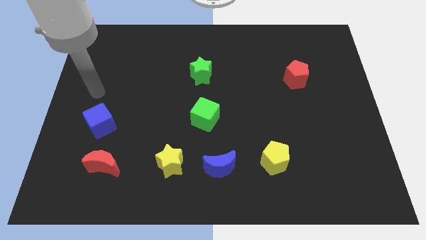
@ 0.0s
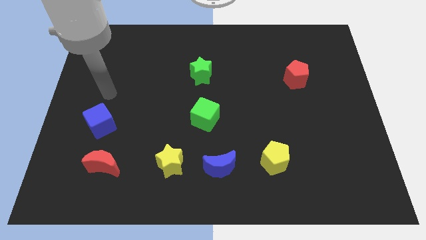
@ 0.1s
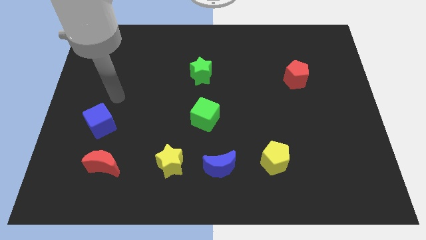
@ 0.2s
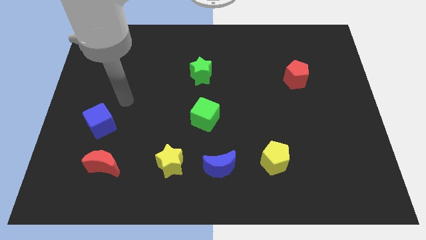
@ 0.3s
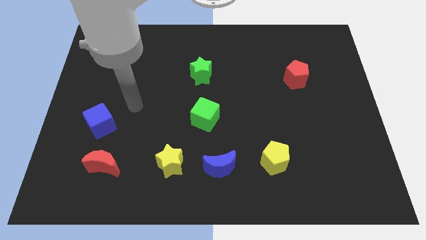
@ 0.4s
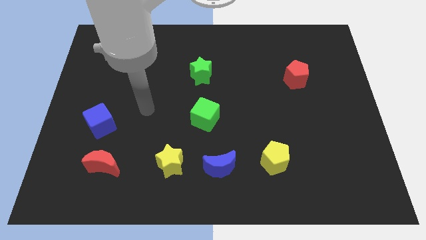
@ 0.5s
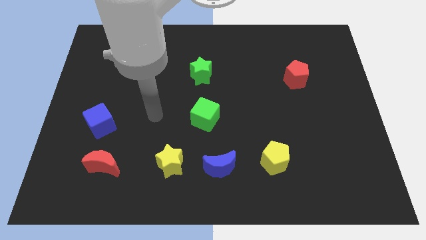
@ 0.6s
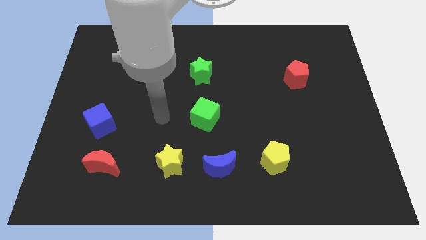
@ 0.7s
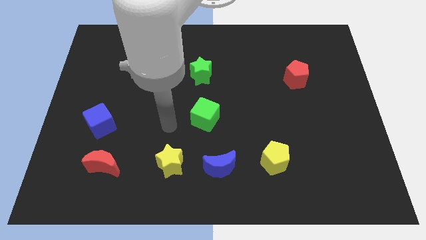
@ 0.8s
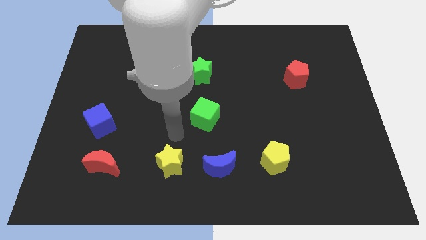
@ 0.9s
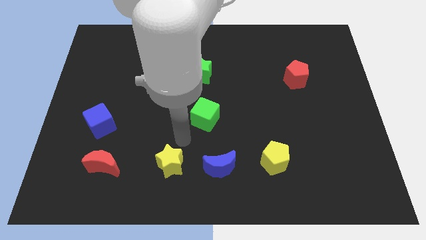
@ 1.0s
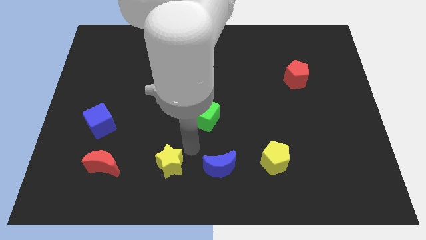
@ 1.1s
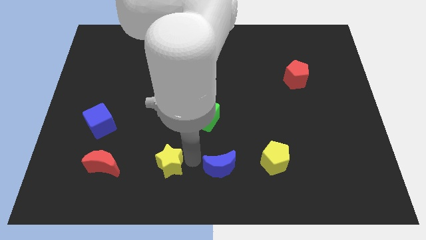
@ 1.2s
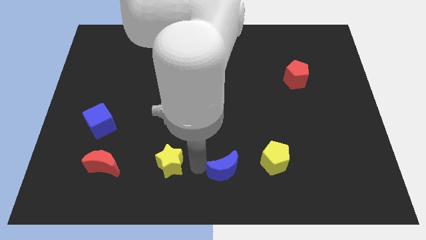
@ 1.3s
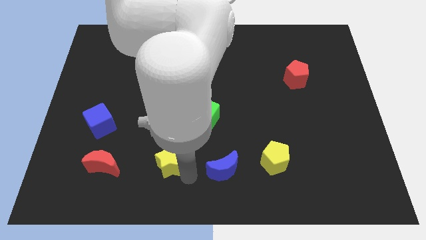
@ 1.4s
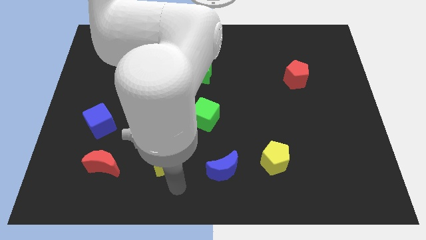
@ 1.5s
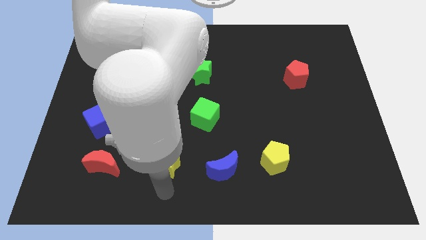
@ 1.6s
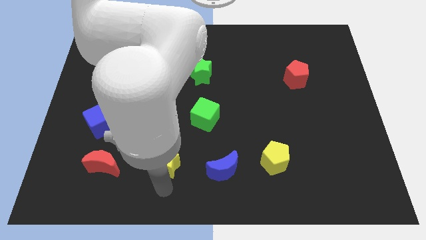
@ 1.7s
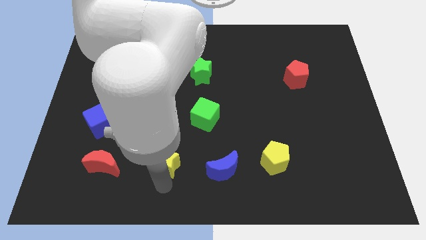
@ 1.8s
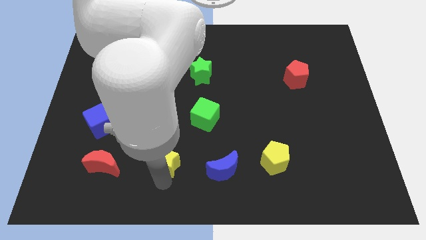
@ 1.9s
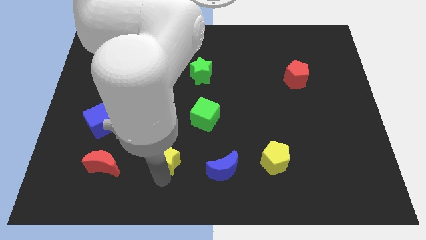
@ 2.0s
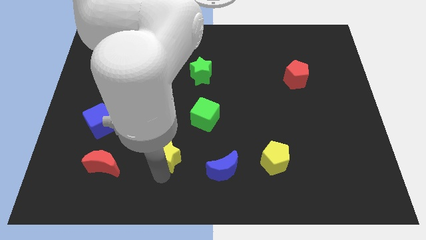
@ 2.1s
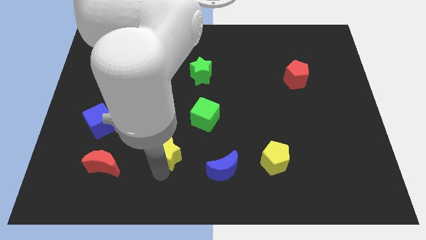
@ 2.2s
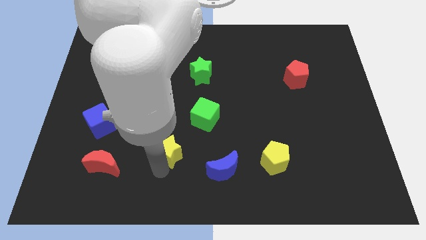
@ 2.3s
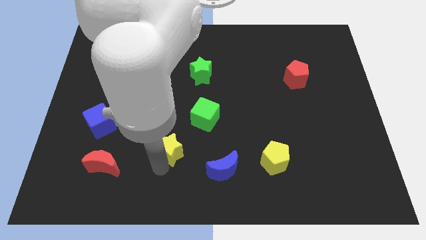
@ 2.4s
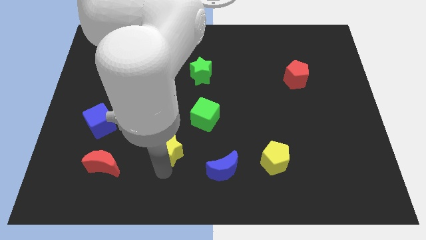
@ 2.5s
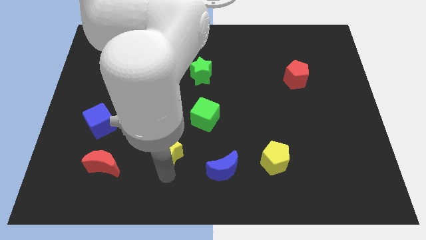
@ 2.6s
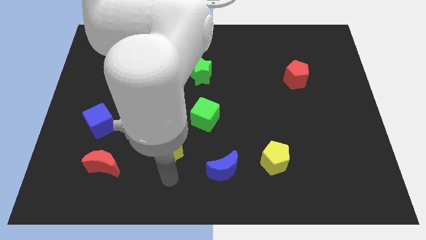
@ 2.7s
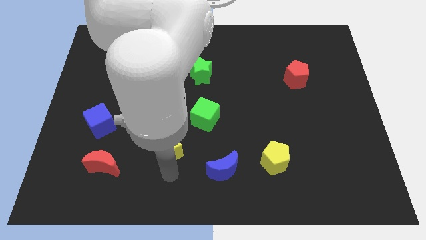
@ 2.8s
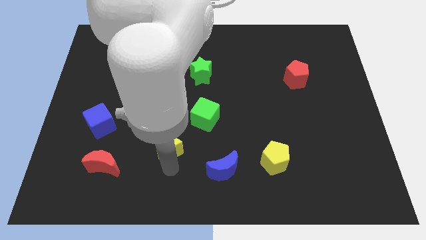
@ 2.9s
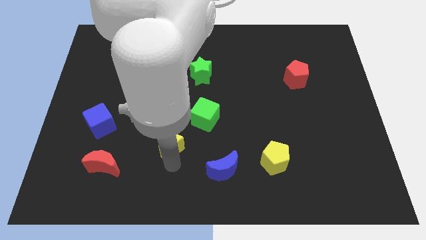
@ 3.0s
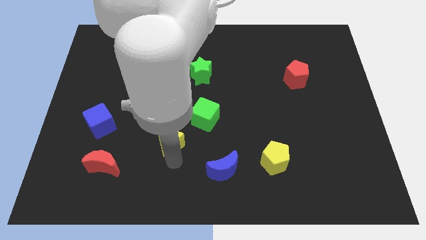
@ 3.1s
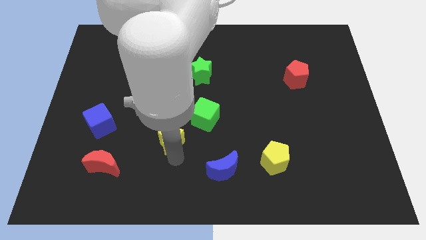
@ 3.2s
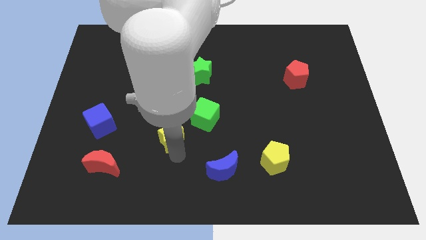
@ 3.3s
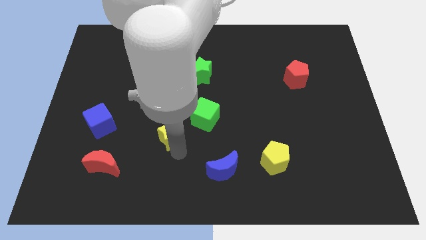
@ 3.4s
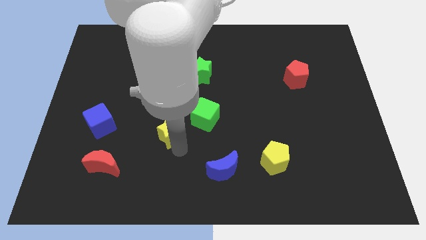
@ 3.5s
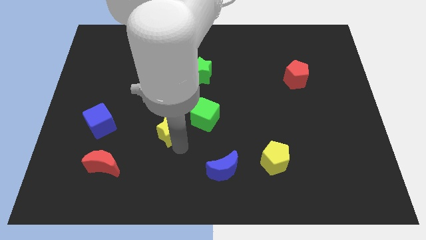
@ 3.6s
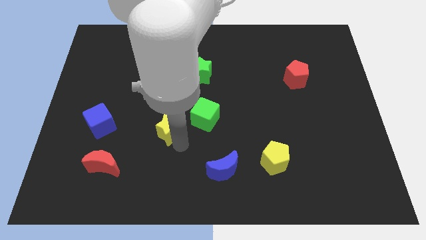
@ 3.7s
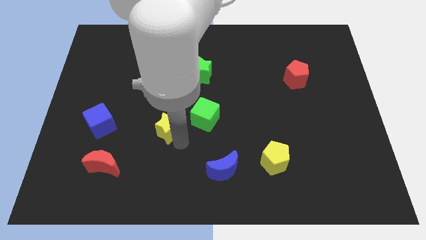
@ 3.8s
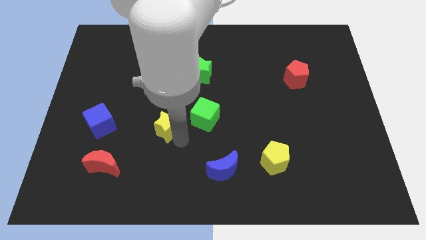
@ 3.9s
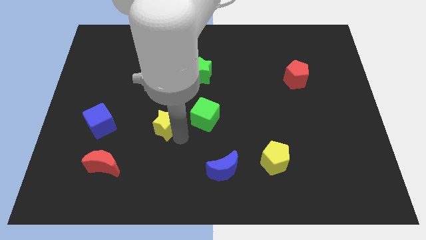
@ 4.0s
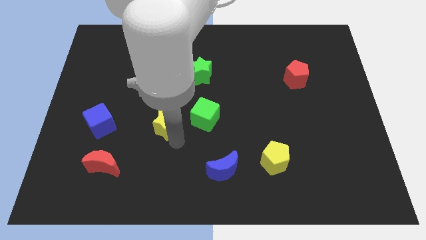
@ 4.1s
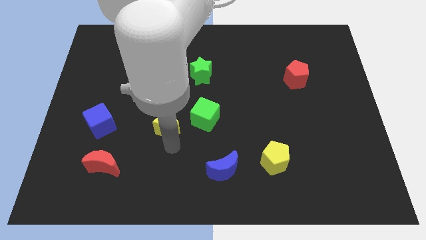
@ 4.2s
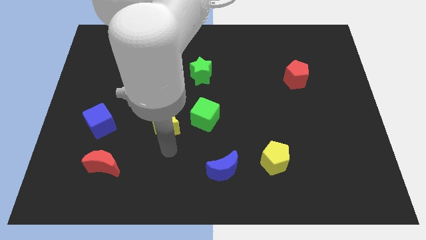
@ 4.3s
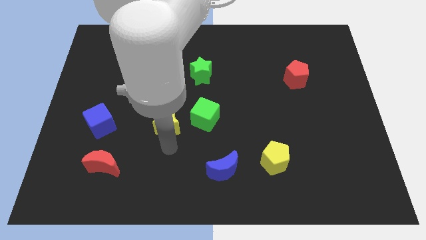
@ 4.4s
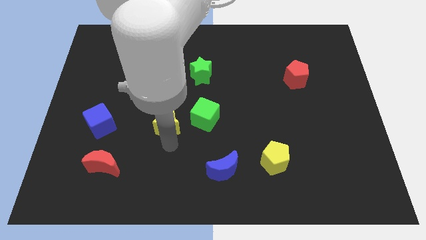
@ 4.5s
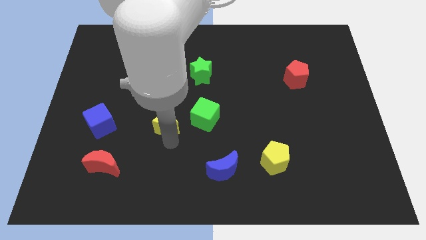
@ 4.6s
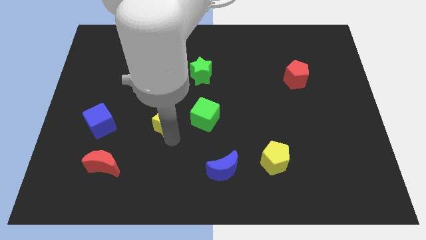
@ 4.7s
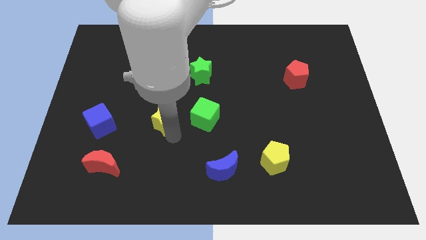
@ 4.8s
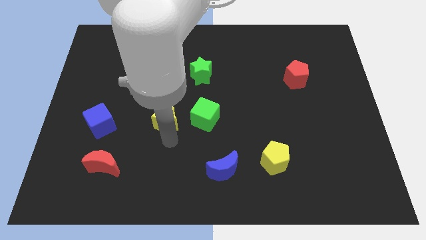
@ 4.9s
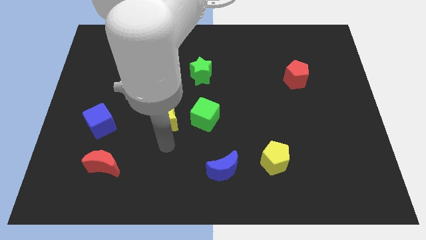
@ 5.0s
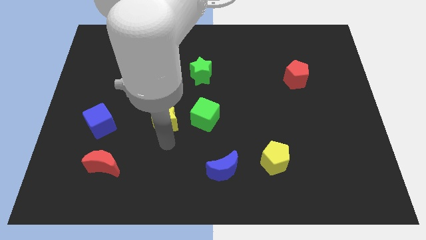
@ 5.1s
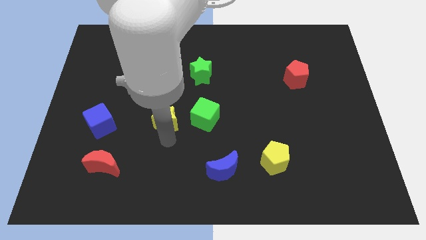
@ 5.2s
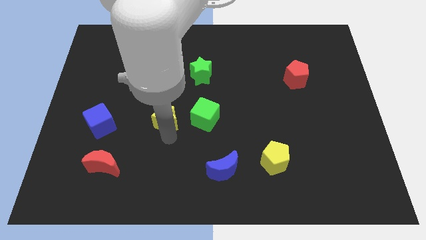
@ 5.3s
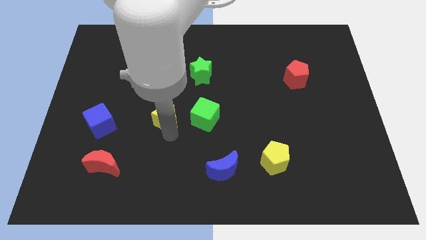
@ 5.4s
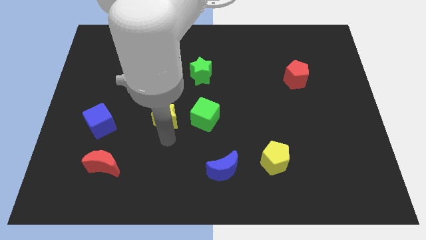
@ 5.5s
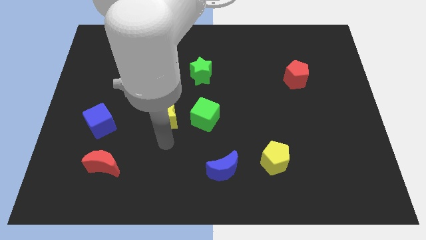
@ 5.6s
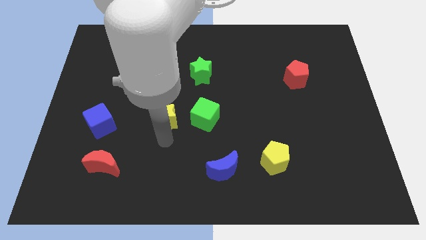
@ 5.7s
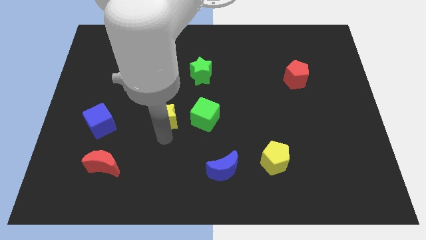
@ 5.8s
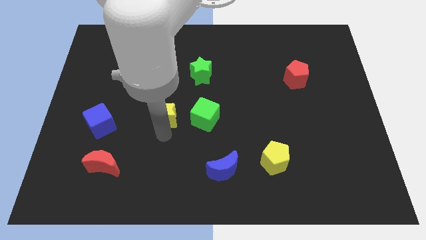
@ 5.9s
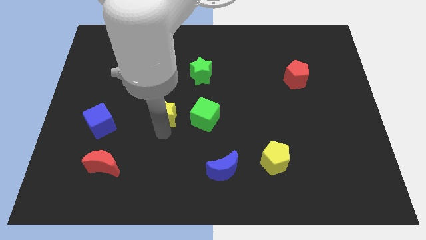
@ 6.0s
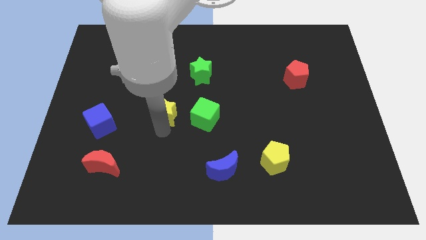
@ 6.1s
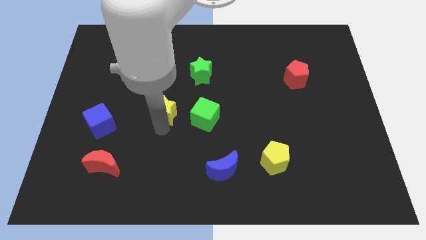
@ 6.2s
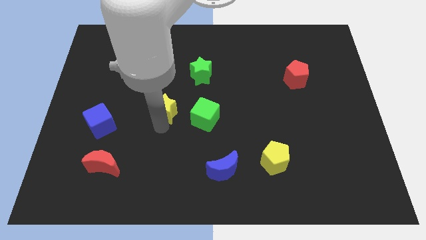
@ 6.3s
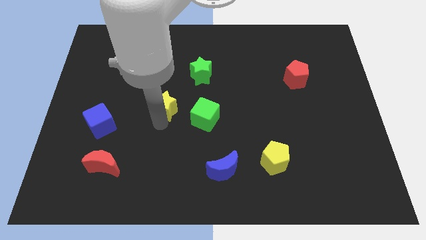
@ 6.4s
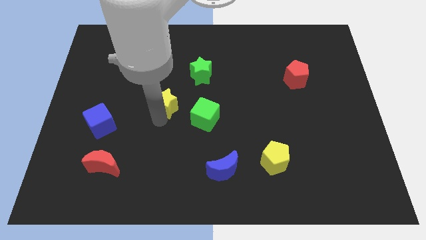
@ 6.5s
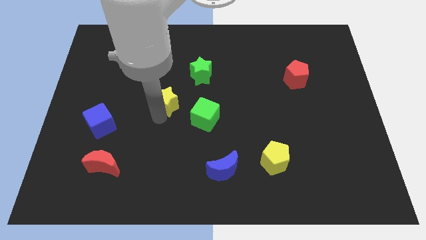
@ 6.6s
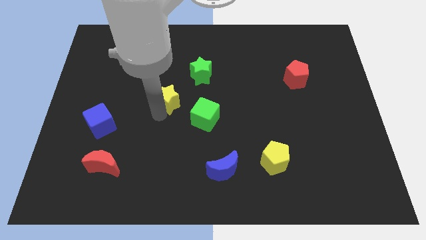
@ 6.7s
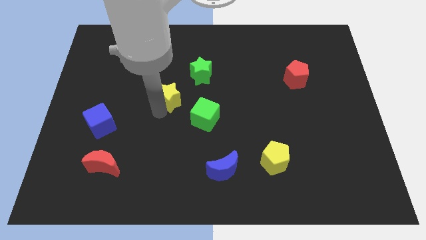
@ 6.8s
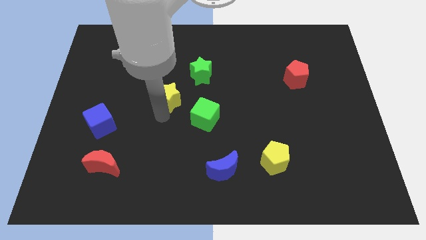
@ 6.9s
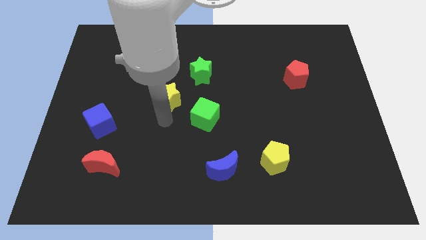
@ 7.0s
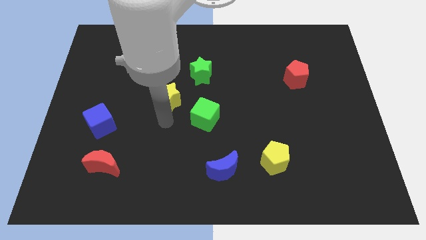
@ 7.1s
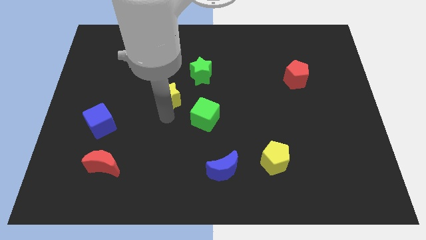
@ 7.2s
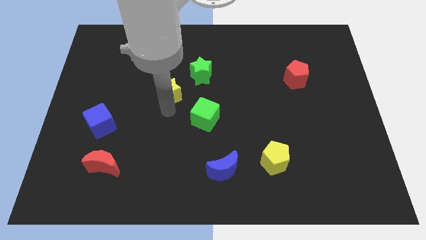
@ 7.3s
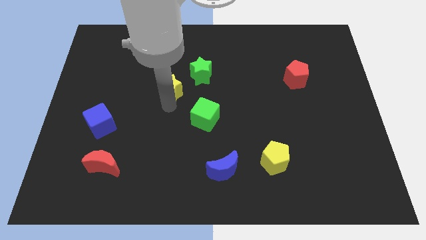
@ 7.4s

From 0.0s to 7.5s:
move the yellow star upwards

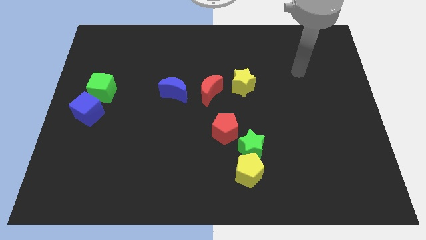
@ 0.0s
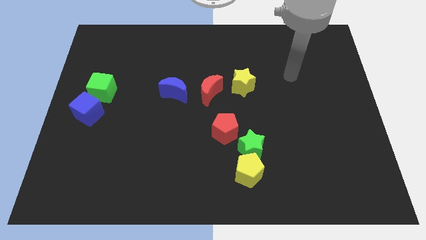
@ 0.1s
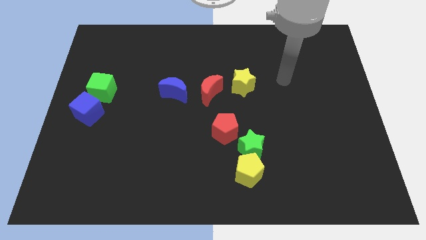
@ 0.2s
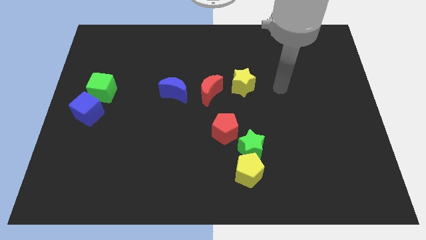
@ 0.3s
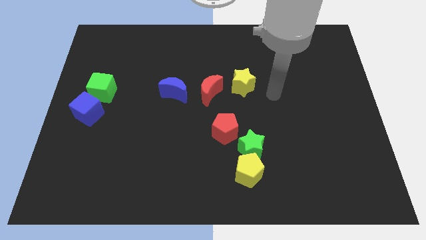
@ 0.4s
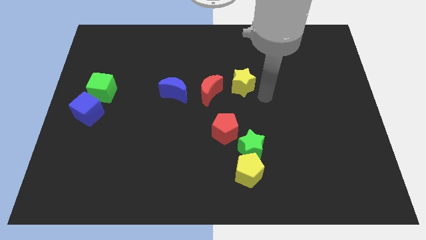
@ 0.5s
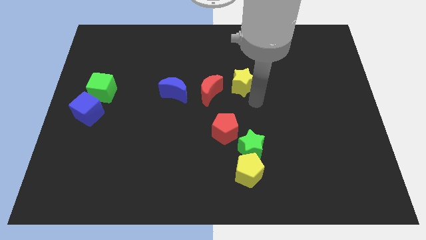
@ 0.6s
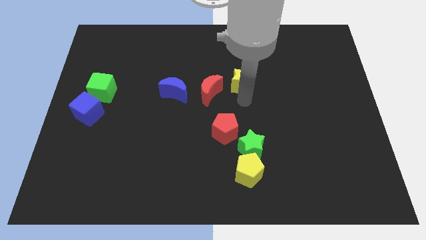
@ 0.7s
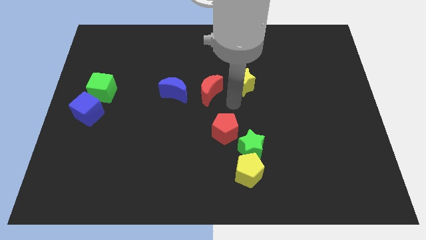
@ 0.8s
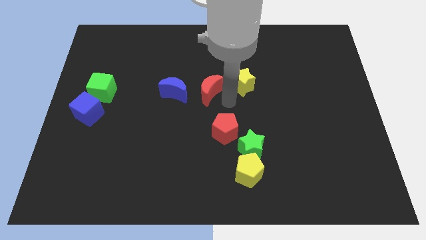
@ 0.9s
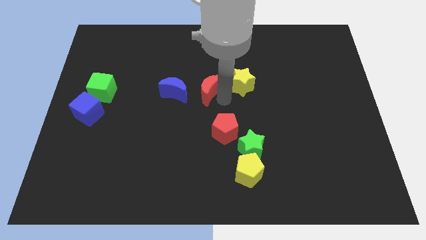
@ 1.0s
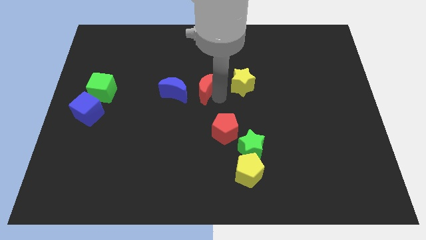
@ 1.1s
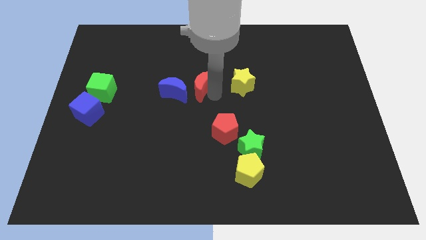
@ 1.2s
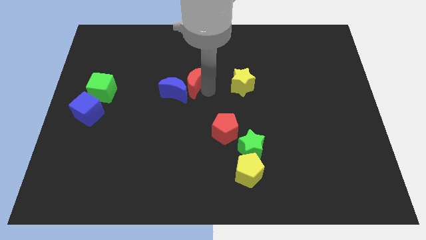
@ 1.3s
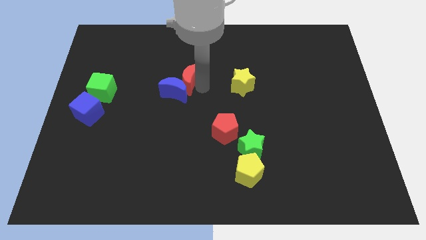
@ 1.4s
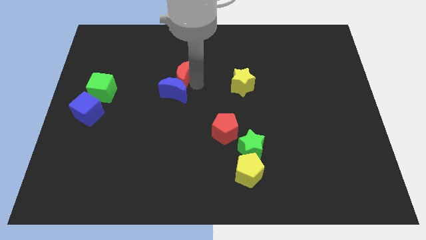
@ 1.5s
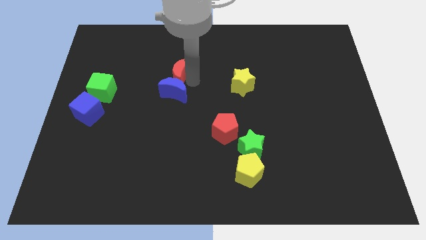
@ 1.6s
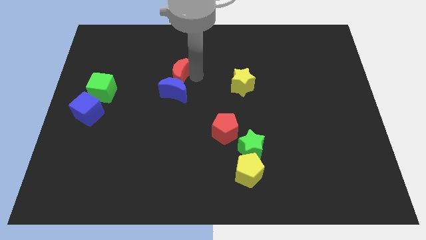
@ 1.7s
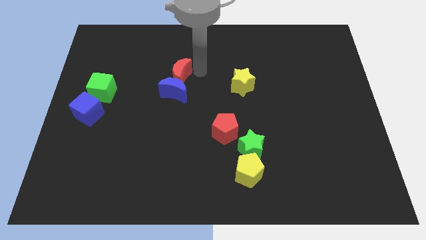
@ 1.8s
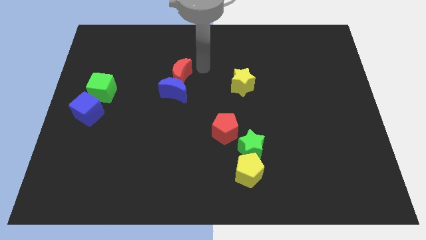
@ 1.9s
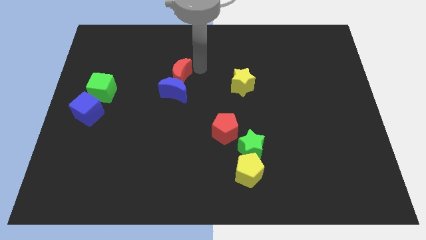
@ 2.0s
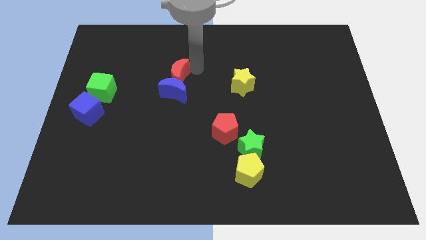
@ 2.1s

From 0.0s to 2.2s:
slightly slide the red moon left
